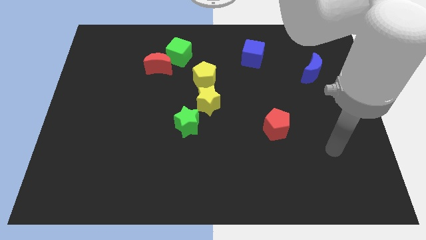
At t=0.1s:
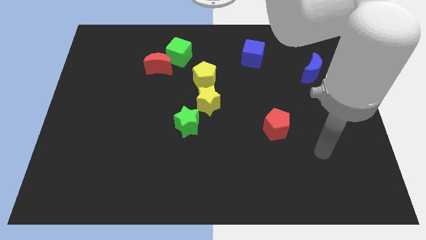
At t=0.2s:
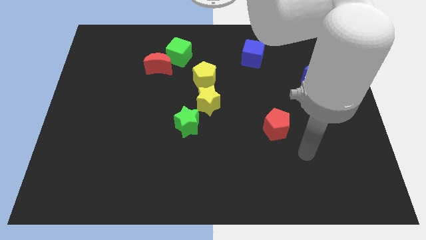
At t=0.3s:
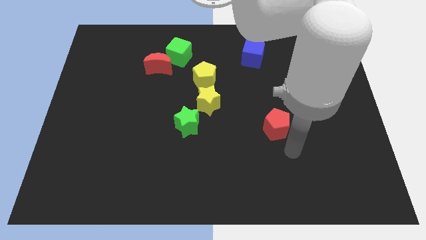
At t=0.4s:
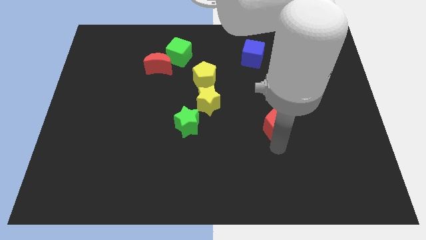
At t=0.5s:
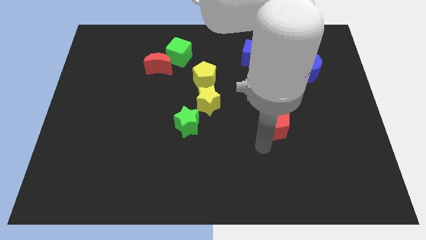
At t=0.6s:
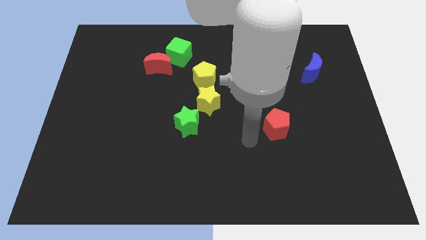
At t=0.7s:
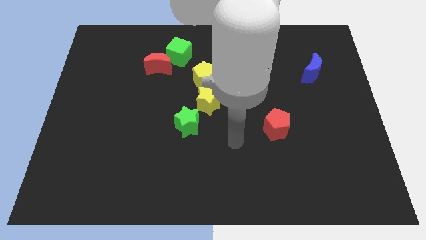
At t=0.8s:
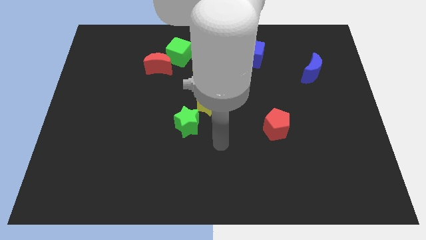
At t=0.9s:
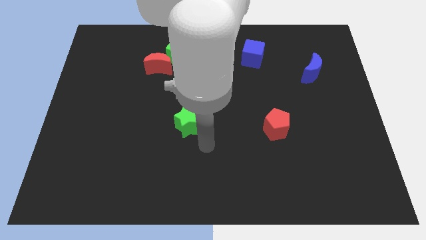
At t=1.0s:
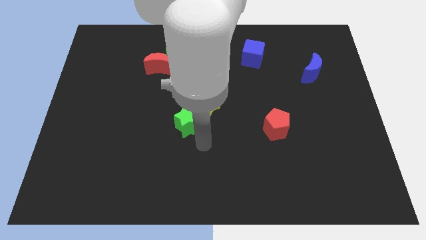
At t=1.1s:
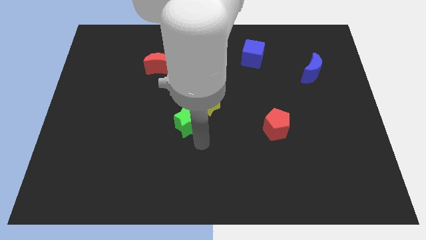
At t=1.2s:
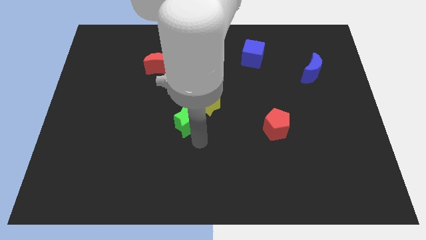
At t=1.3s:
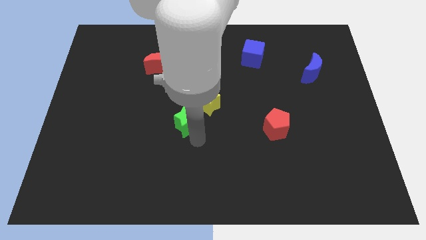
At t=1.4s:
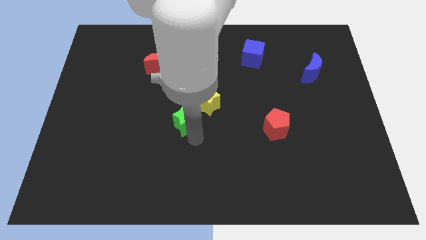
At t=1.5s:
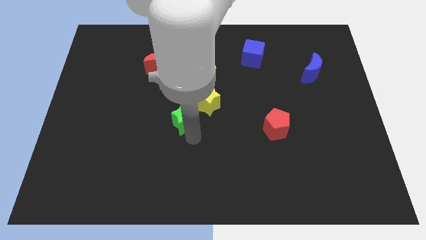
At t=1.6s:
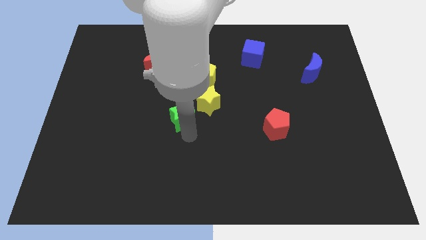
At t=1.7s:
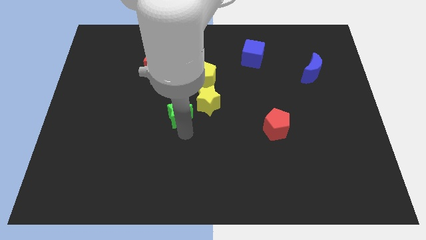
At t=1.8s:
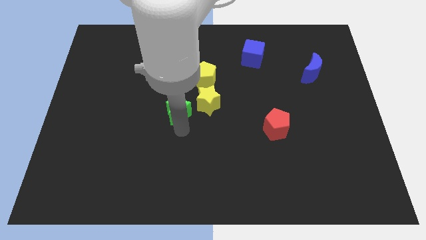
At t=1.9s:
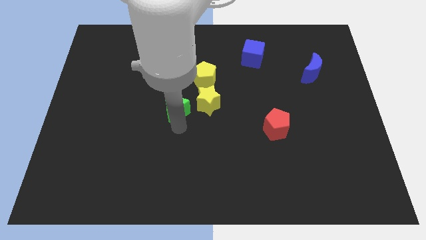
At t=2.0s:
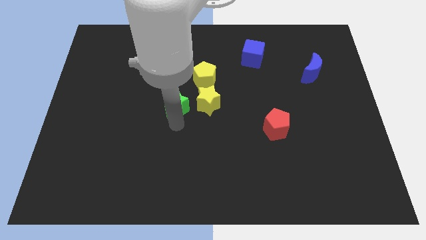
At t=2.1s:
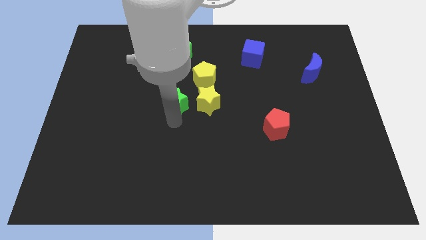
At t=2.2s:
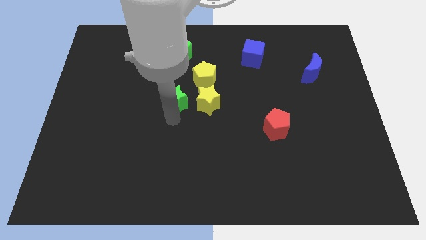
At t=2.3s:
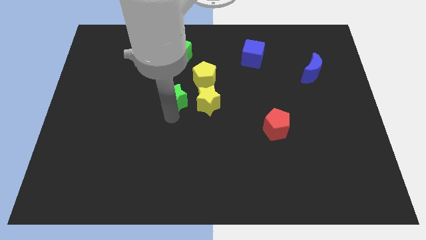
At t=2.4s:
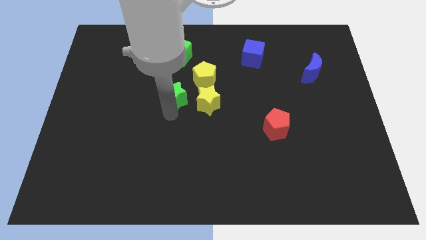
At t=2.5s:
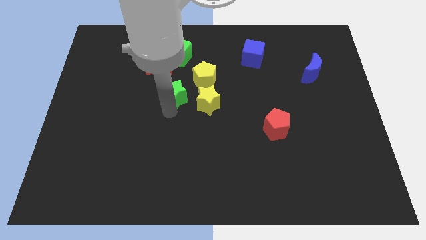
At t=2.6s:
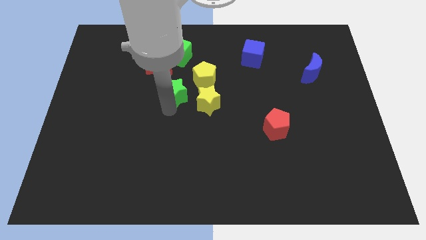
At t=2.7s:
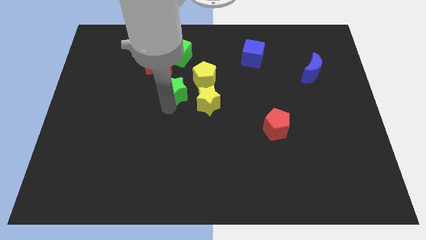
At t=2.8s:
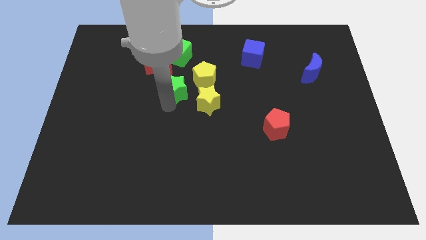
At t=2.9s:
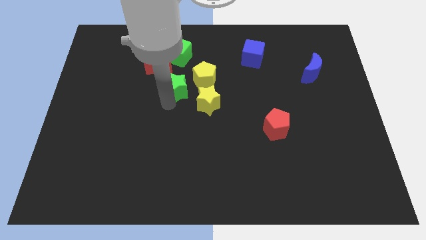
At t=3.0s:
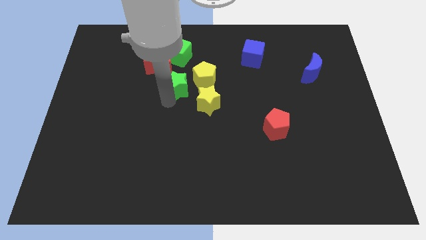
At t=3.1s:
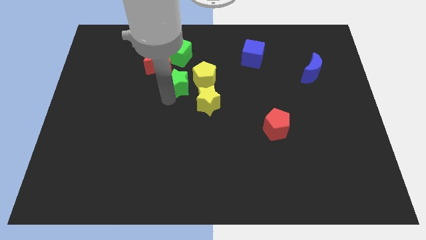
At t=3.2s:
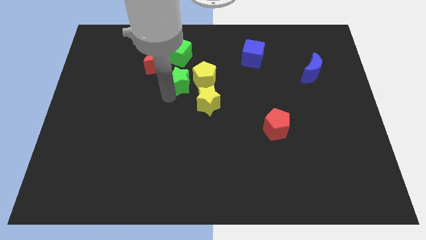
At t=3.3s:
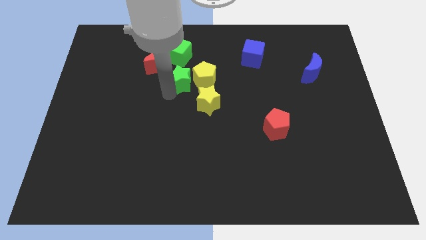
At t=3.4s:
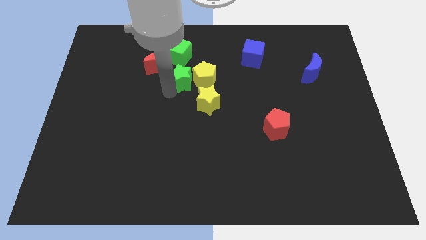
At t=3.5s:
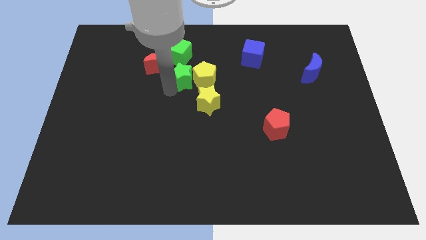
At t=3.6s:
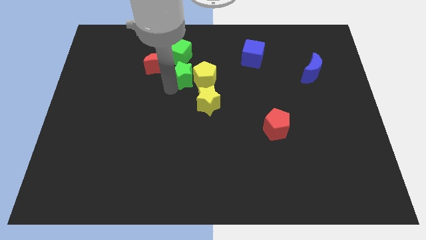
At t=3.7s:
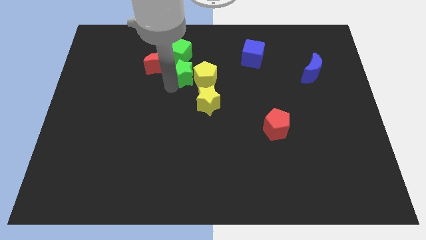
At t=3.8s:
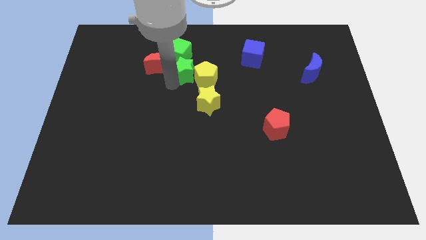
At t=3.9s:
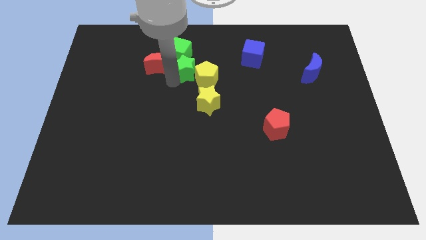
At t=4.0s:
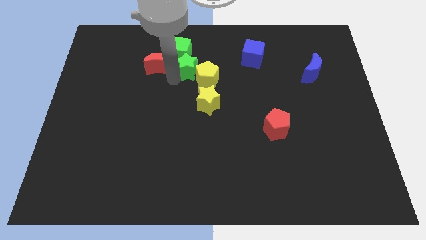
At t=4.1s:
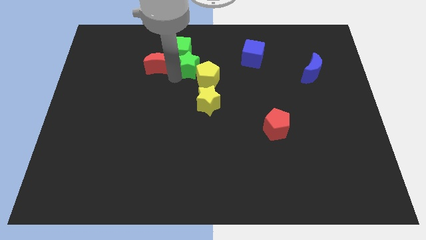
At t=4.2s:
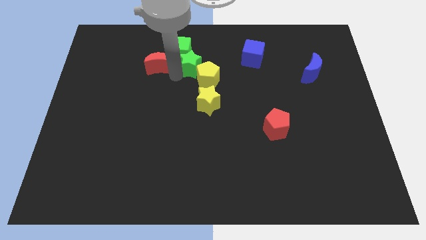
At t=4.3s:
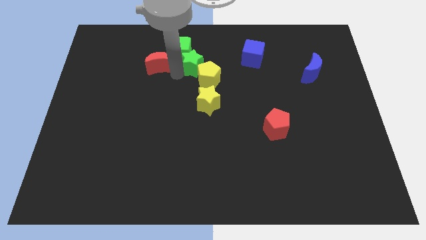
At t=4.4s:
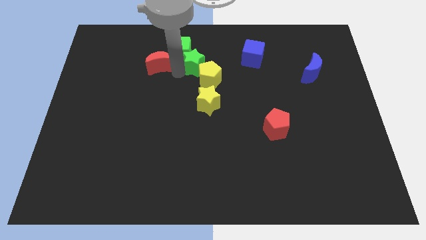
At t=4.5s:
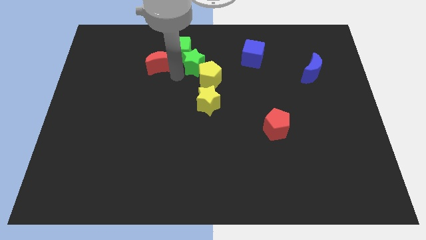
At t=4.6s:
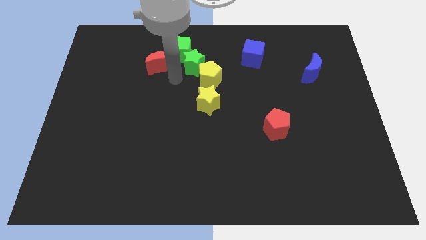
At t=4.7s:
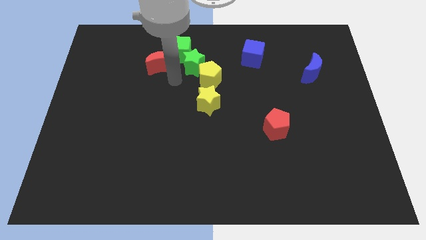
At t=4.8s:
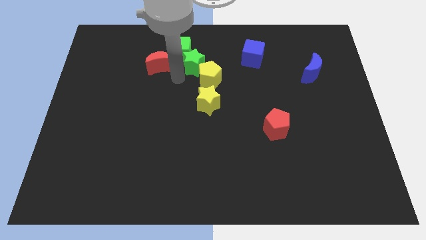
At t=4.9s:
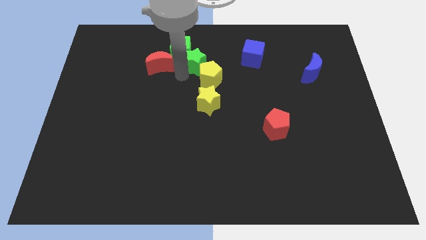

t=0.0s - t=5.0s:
slide the green star just right of the green cube

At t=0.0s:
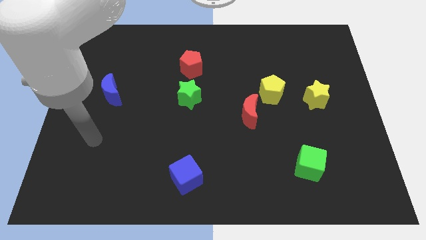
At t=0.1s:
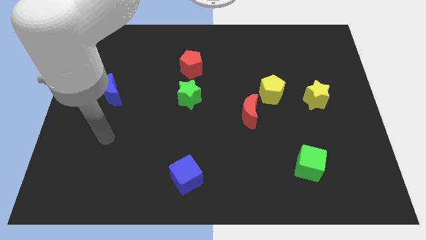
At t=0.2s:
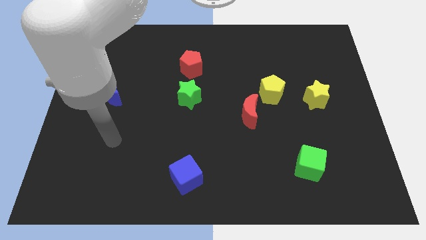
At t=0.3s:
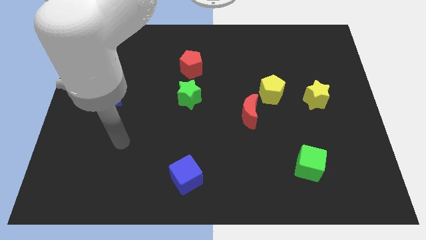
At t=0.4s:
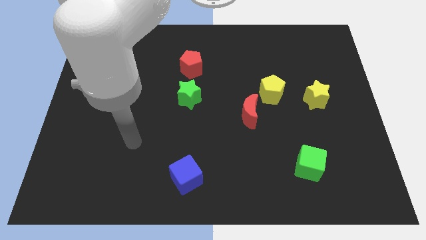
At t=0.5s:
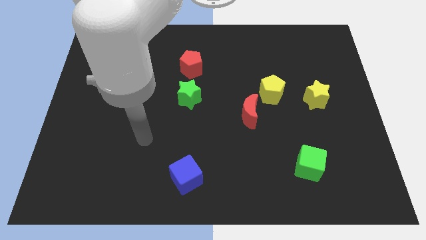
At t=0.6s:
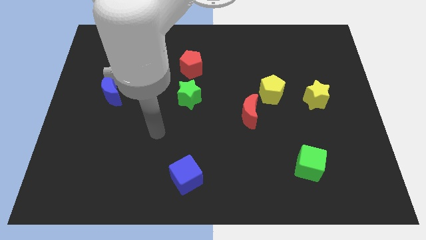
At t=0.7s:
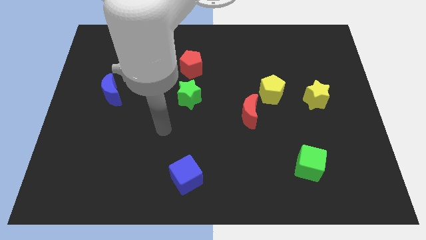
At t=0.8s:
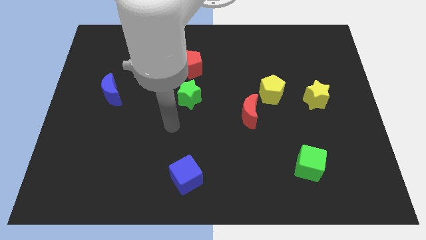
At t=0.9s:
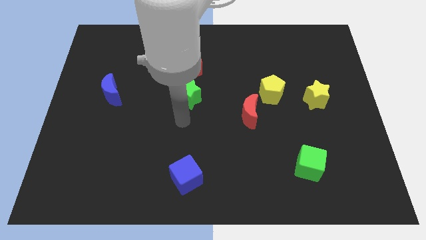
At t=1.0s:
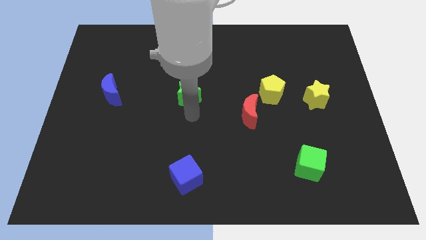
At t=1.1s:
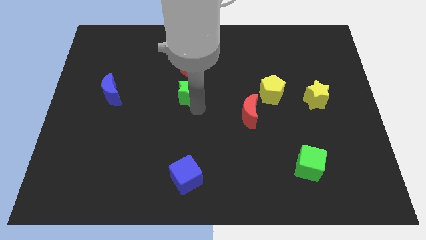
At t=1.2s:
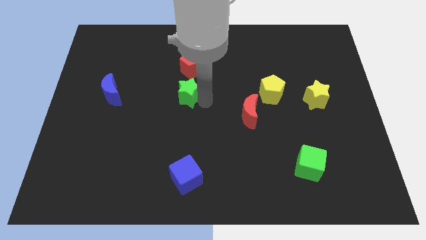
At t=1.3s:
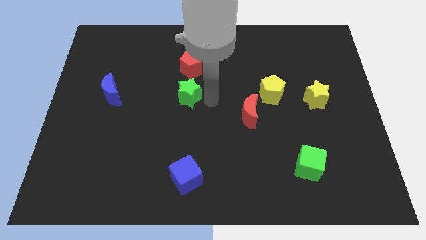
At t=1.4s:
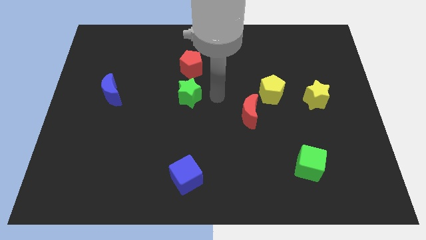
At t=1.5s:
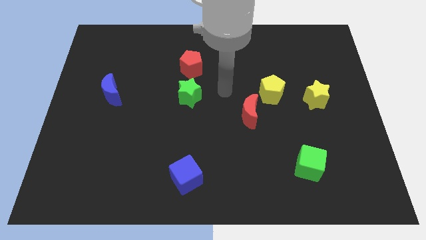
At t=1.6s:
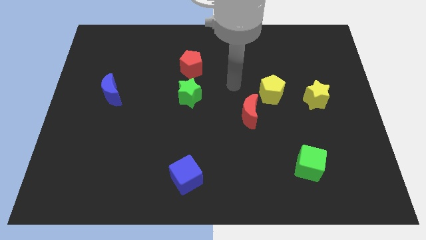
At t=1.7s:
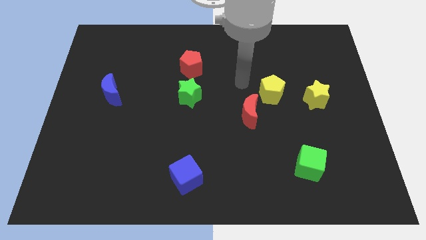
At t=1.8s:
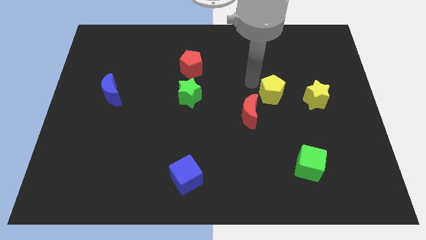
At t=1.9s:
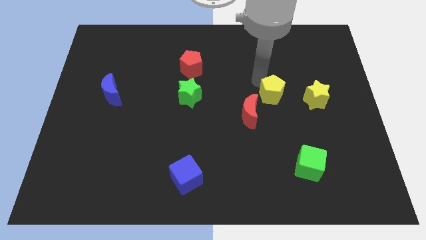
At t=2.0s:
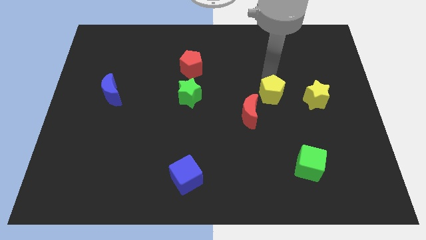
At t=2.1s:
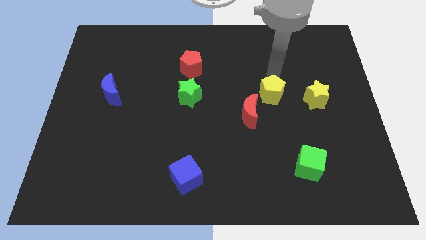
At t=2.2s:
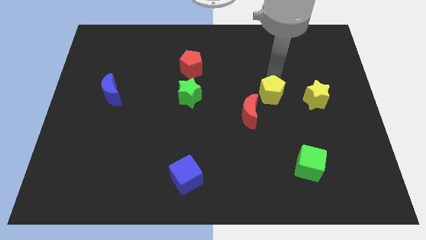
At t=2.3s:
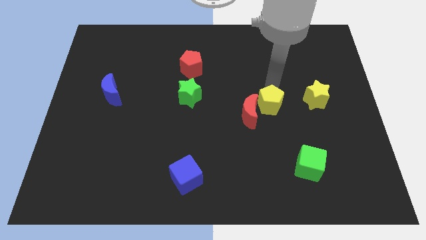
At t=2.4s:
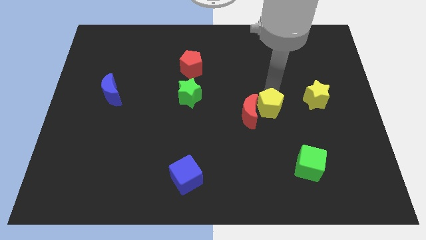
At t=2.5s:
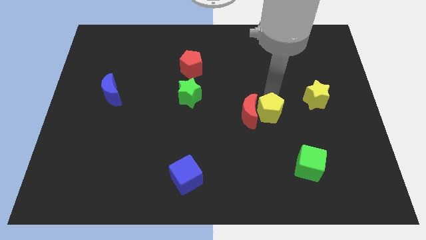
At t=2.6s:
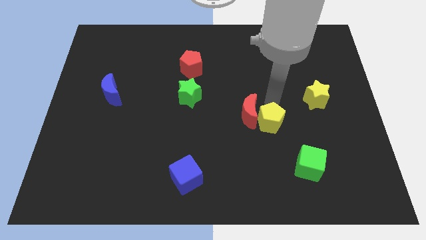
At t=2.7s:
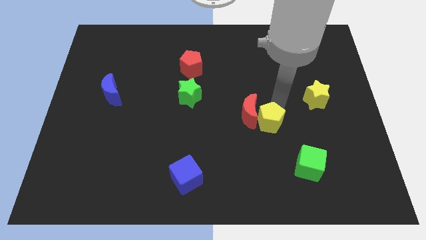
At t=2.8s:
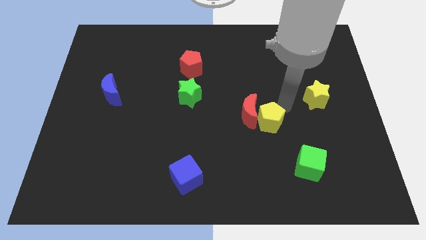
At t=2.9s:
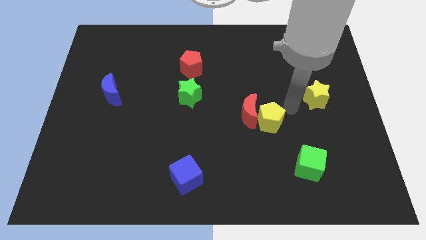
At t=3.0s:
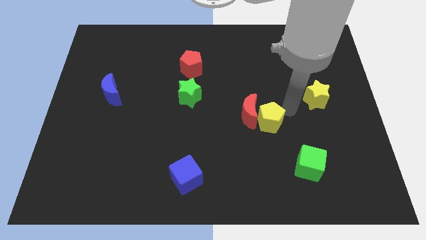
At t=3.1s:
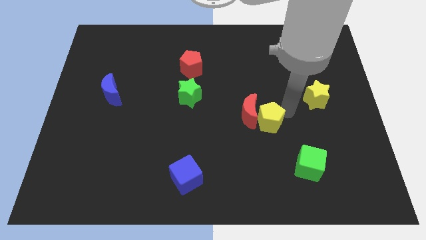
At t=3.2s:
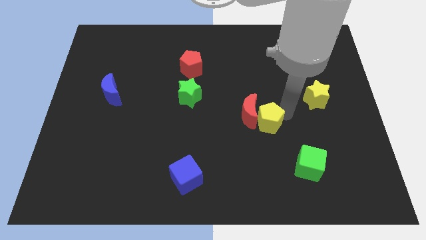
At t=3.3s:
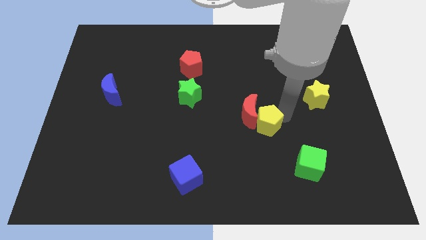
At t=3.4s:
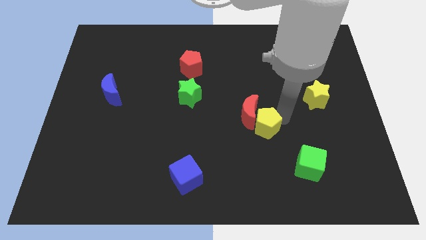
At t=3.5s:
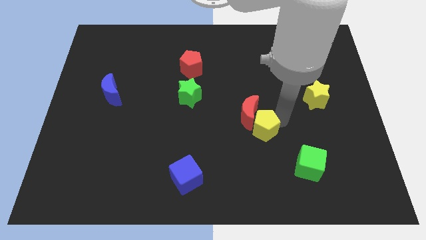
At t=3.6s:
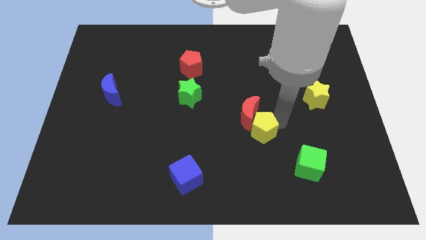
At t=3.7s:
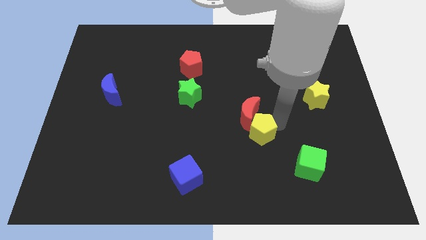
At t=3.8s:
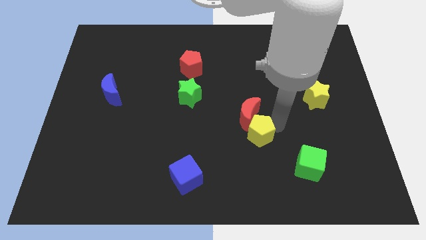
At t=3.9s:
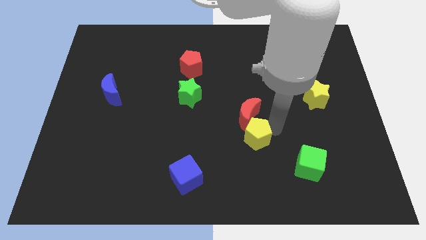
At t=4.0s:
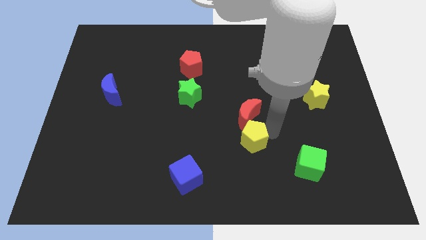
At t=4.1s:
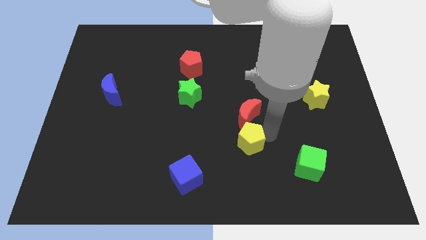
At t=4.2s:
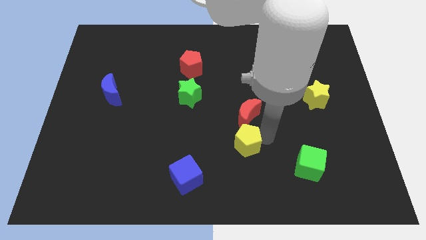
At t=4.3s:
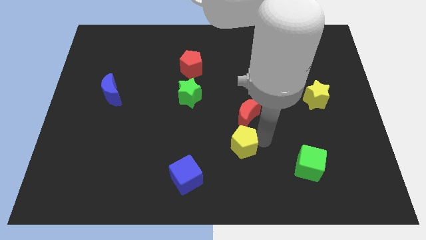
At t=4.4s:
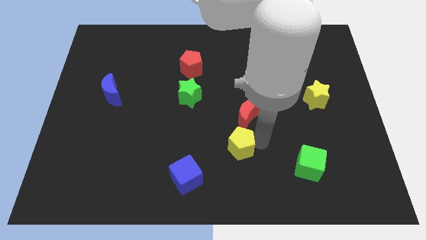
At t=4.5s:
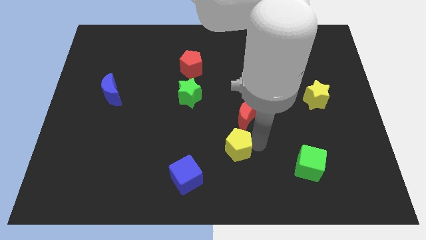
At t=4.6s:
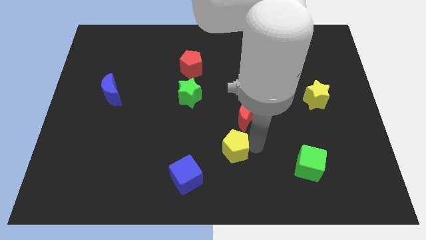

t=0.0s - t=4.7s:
slide the yellow pentagon to the top right side of the blue cube
